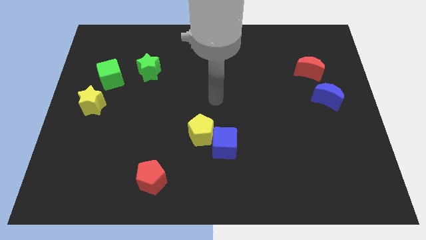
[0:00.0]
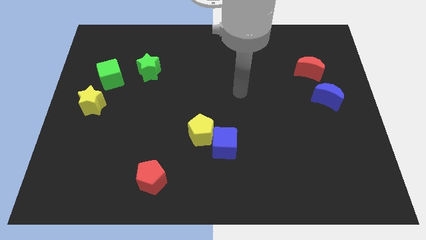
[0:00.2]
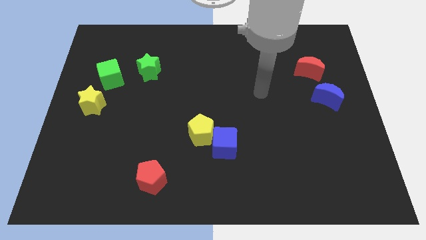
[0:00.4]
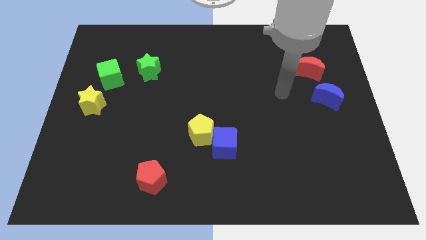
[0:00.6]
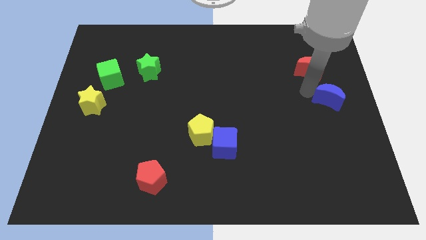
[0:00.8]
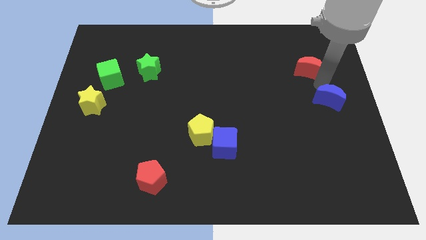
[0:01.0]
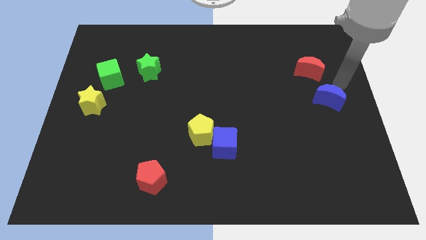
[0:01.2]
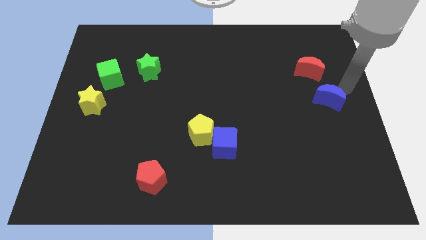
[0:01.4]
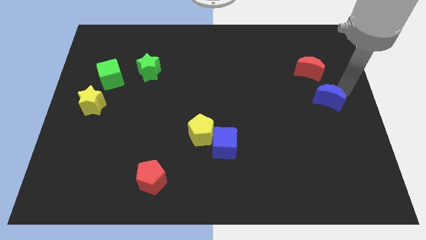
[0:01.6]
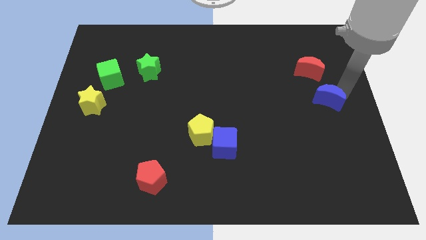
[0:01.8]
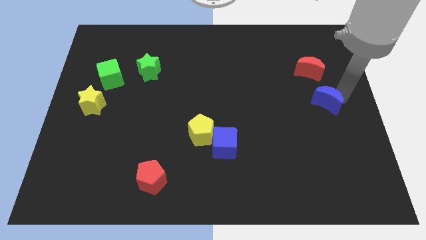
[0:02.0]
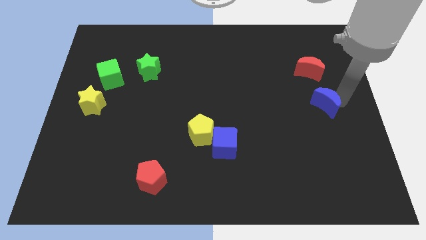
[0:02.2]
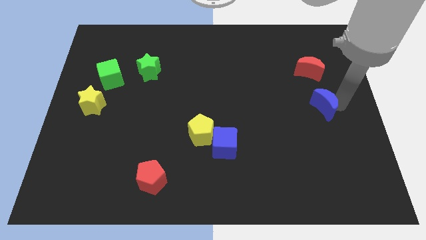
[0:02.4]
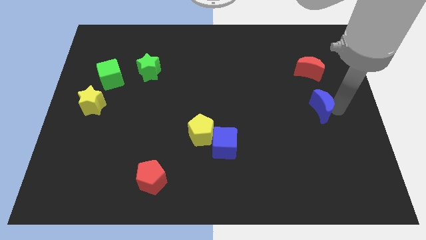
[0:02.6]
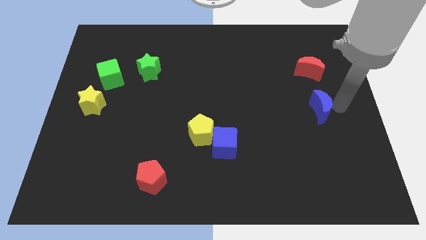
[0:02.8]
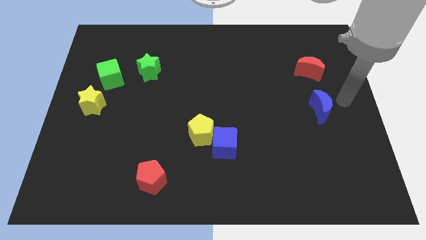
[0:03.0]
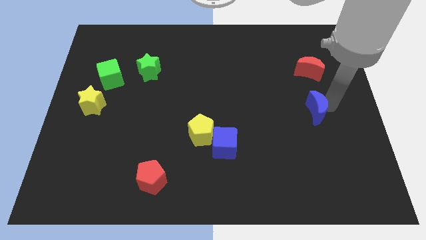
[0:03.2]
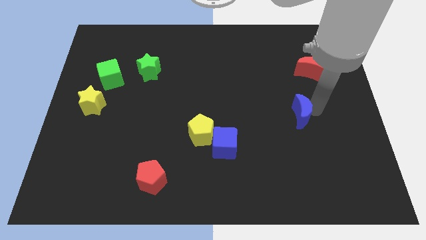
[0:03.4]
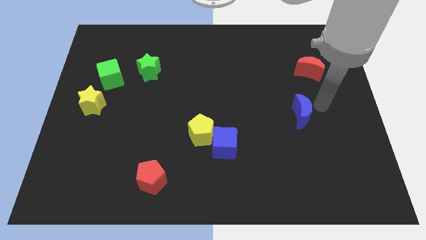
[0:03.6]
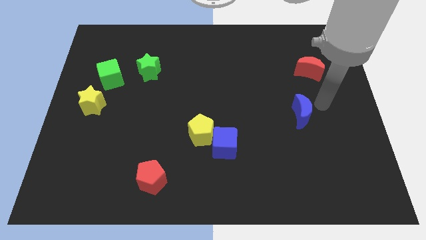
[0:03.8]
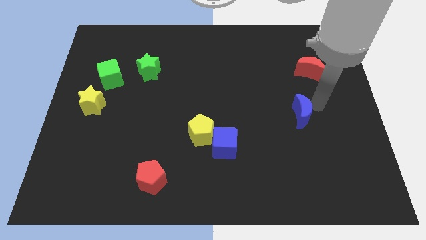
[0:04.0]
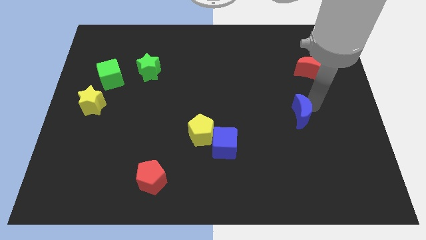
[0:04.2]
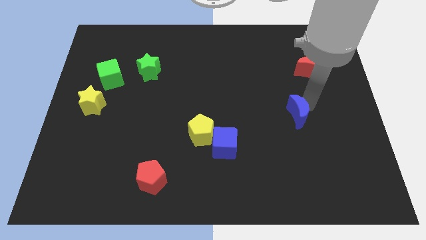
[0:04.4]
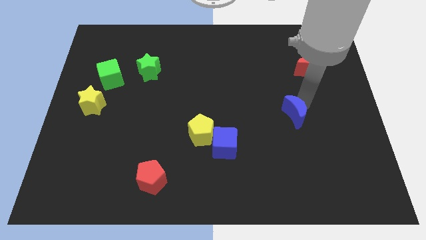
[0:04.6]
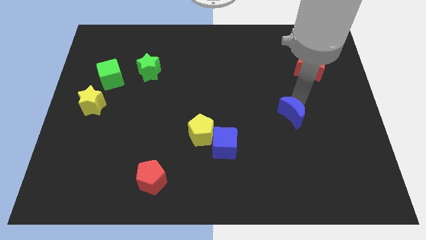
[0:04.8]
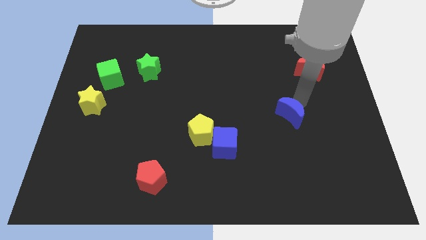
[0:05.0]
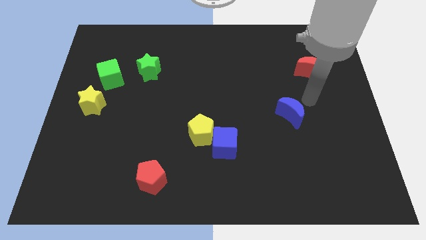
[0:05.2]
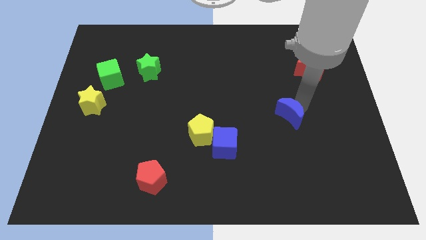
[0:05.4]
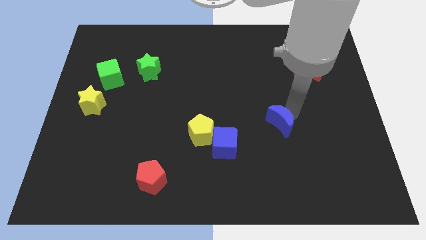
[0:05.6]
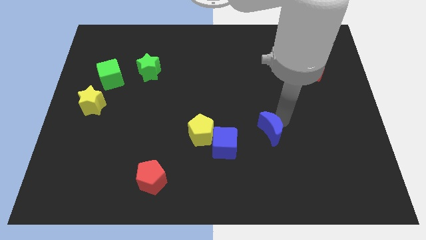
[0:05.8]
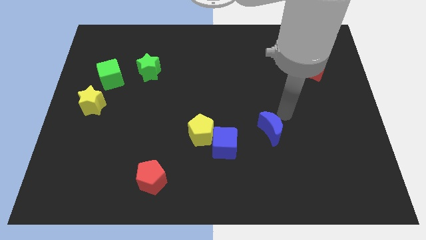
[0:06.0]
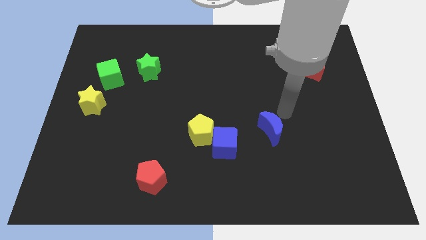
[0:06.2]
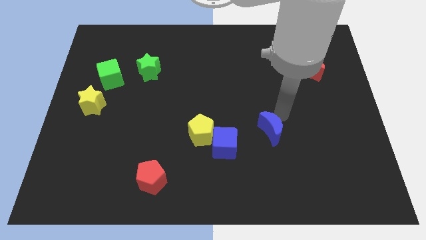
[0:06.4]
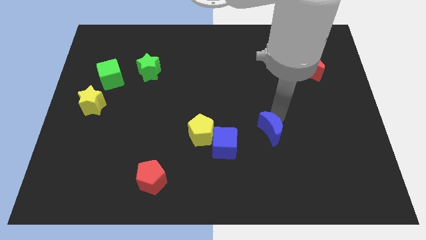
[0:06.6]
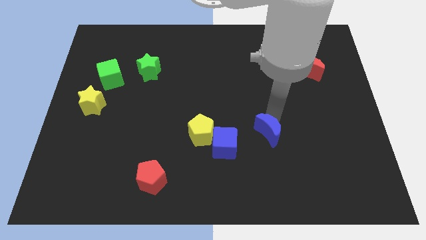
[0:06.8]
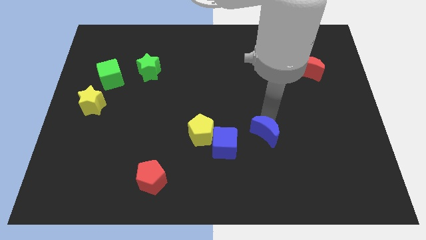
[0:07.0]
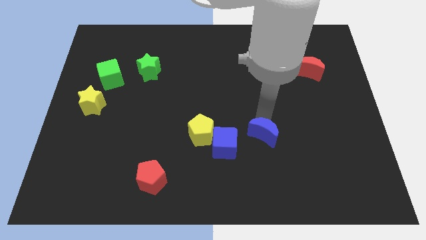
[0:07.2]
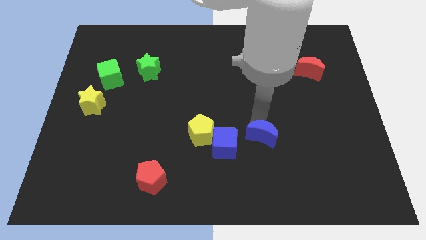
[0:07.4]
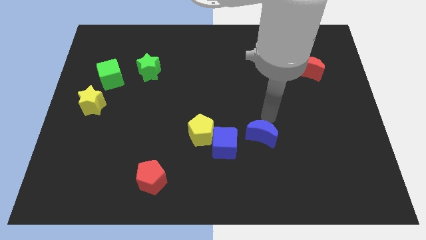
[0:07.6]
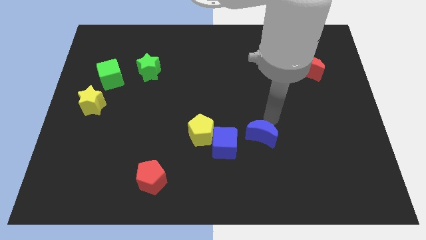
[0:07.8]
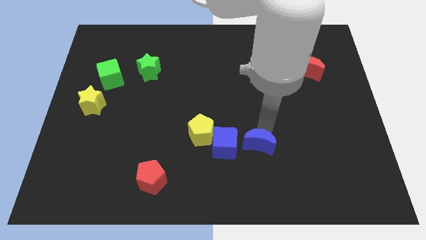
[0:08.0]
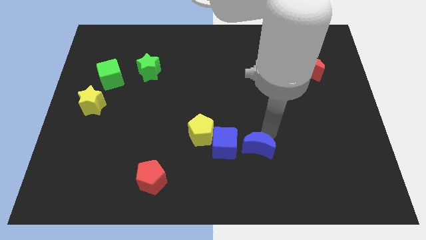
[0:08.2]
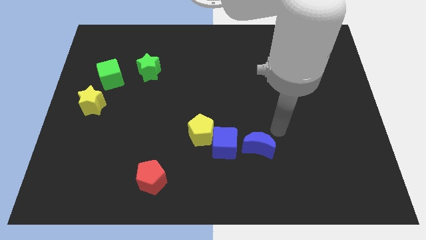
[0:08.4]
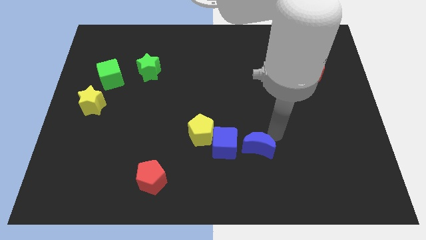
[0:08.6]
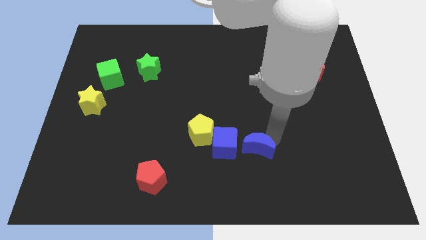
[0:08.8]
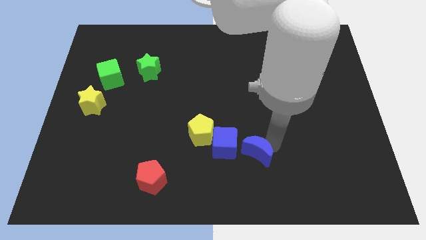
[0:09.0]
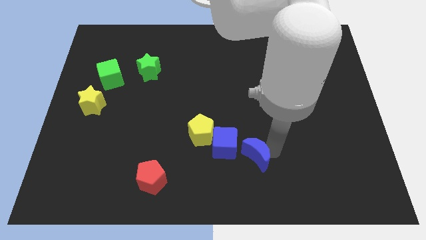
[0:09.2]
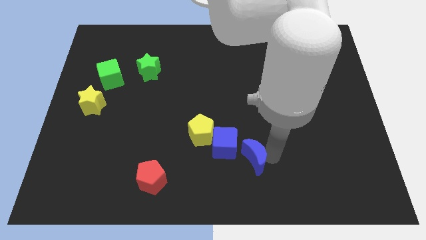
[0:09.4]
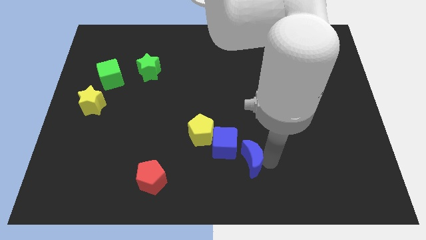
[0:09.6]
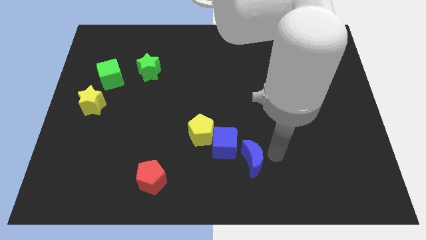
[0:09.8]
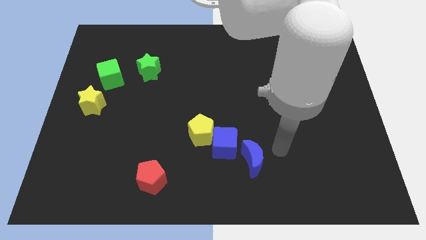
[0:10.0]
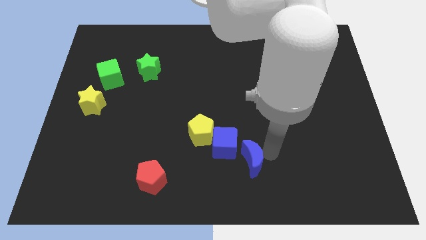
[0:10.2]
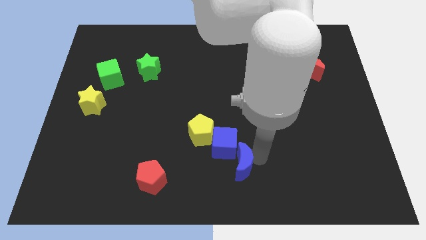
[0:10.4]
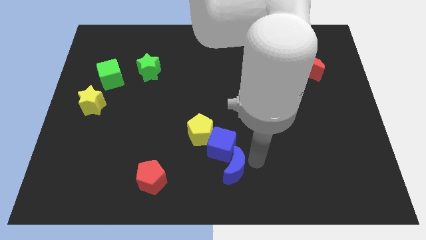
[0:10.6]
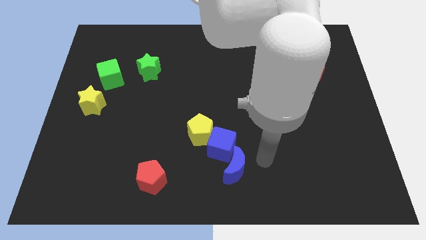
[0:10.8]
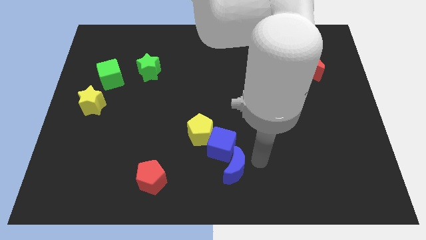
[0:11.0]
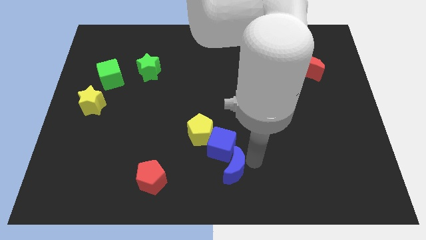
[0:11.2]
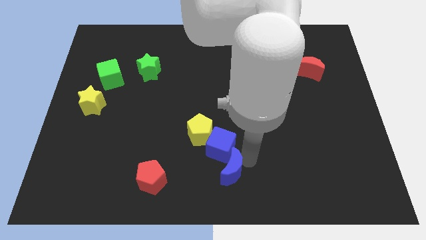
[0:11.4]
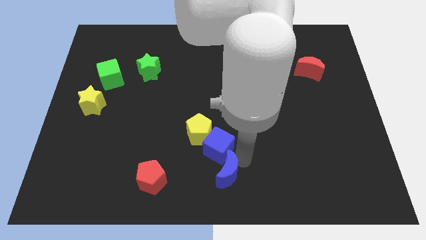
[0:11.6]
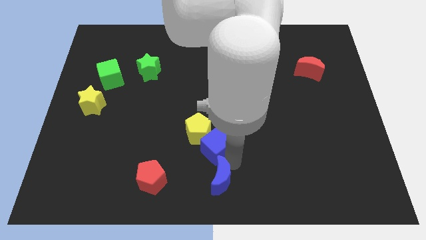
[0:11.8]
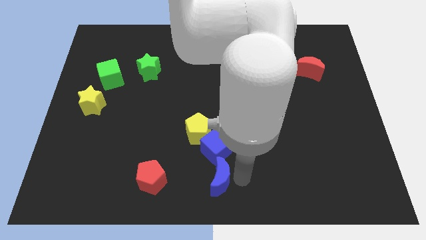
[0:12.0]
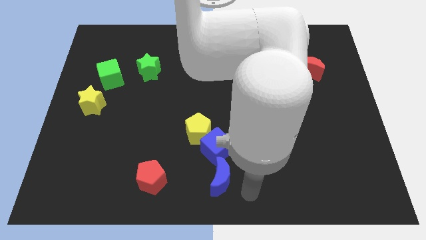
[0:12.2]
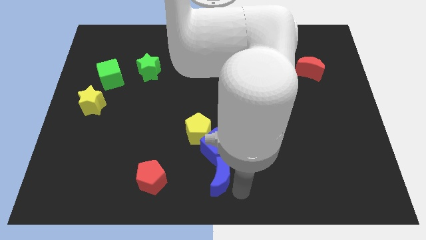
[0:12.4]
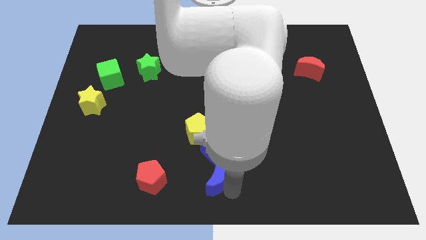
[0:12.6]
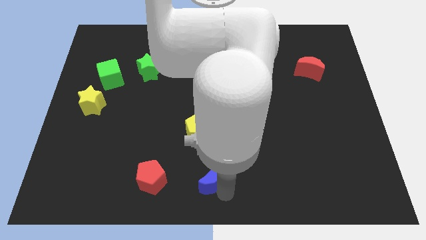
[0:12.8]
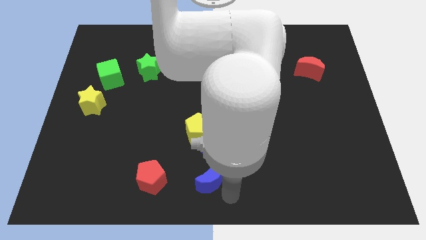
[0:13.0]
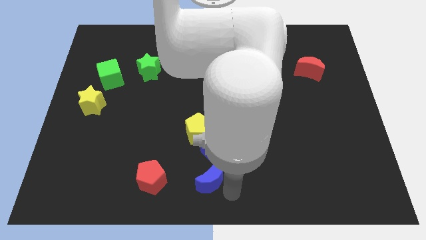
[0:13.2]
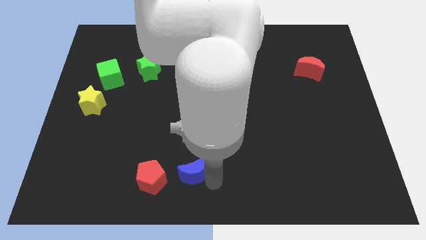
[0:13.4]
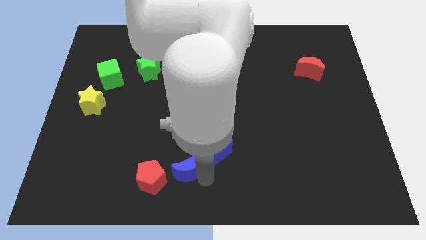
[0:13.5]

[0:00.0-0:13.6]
slide the blue moon diagonally up and to the right of the red pentagon
